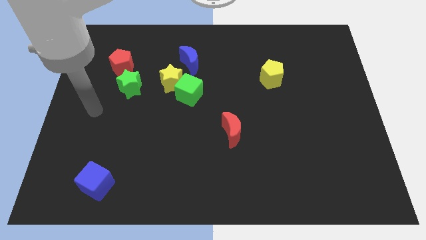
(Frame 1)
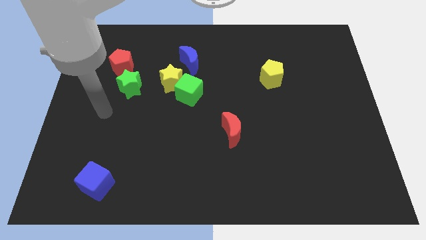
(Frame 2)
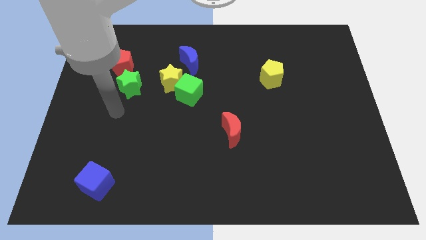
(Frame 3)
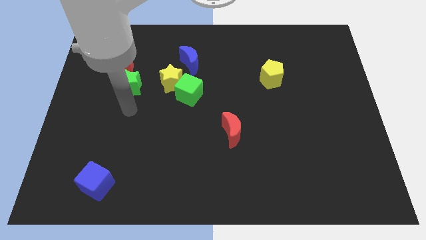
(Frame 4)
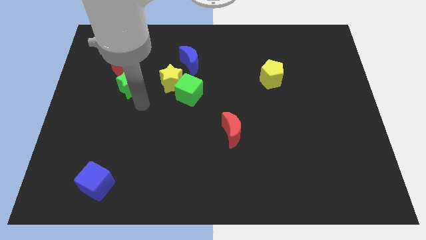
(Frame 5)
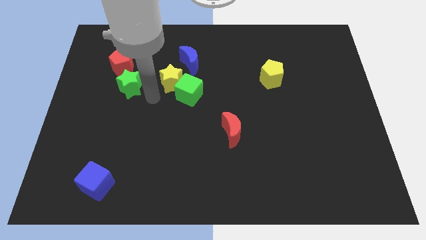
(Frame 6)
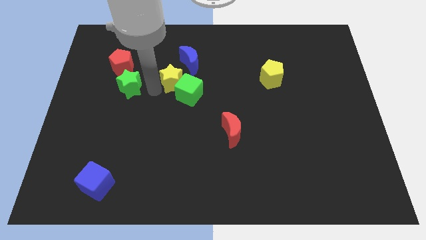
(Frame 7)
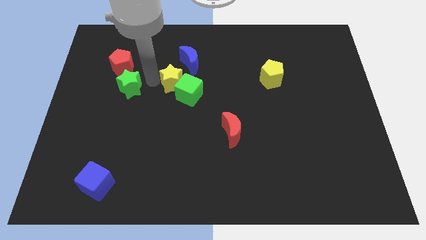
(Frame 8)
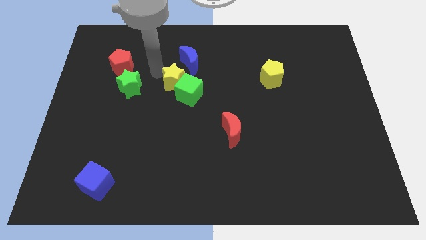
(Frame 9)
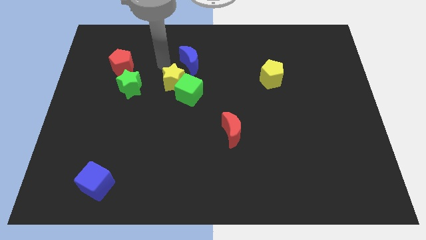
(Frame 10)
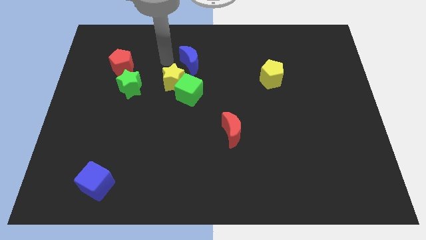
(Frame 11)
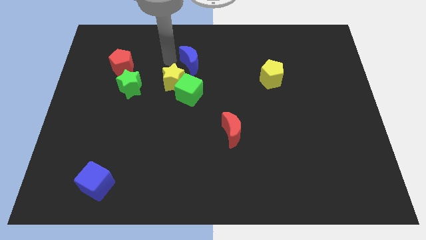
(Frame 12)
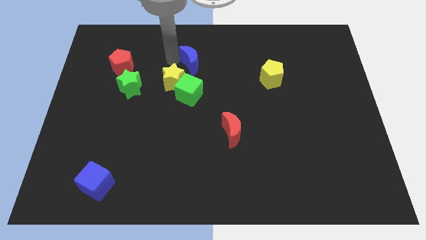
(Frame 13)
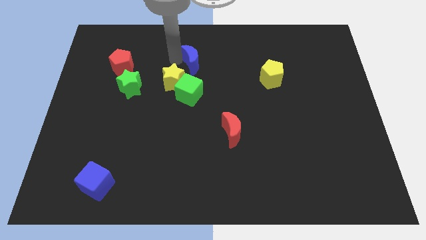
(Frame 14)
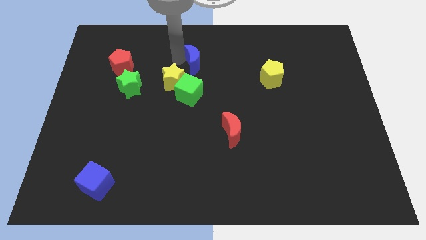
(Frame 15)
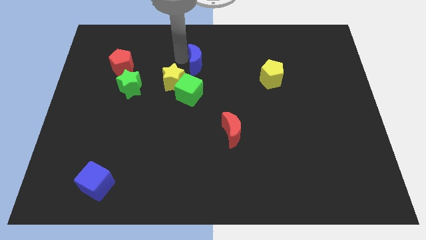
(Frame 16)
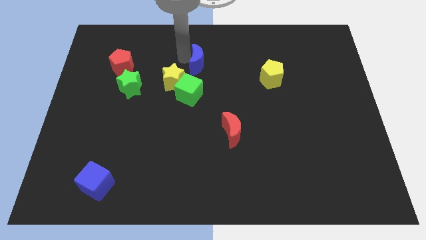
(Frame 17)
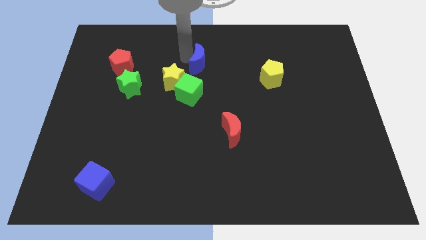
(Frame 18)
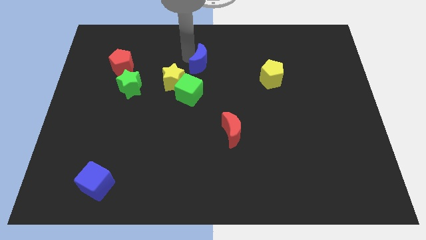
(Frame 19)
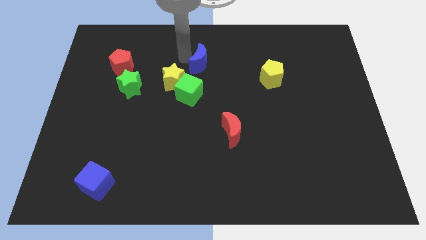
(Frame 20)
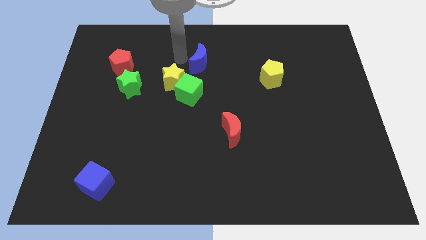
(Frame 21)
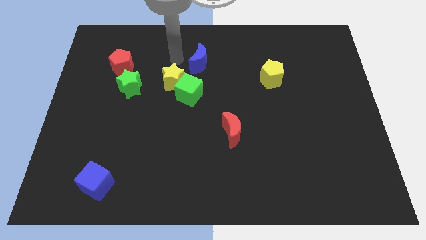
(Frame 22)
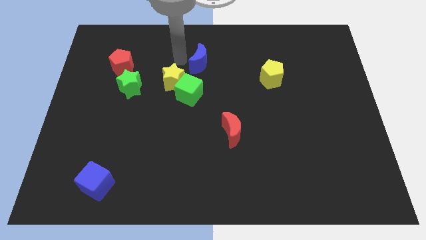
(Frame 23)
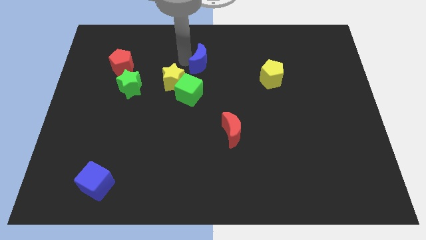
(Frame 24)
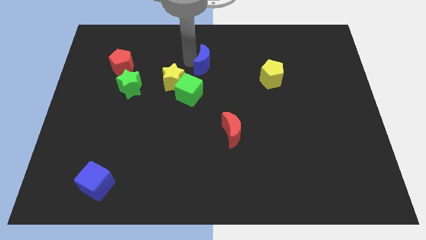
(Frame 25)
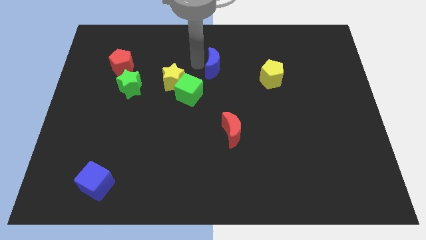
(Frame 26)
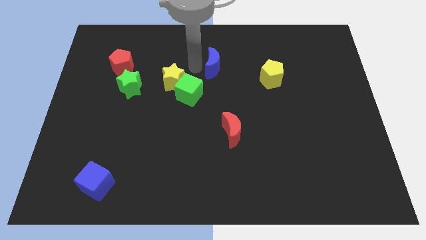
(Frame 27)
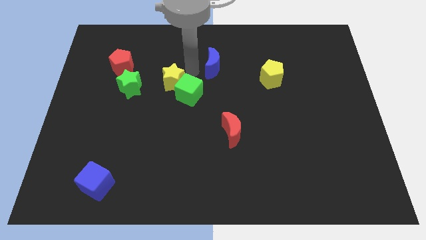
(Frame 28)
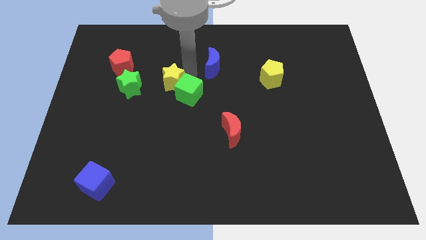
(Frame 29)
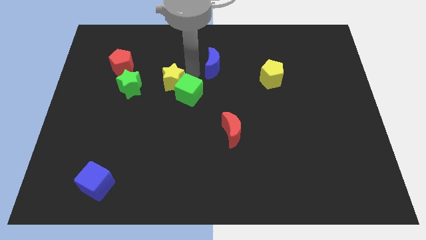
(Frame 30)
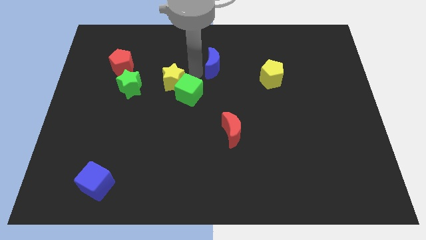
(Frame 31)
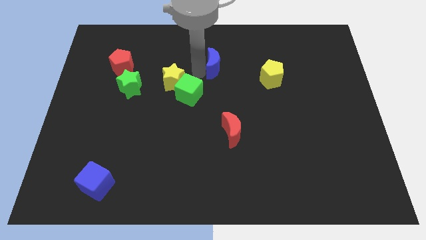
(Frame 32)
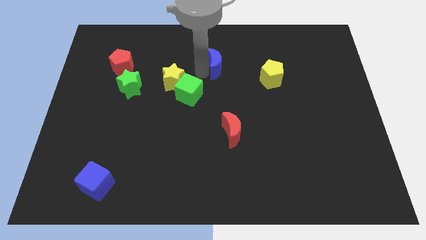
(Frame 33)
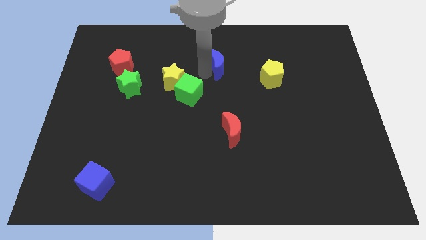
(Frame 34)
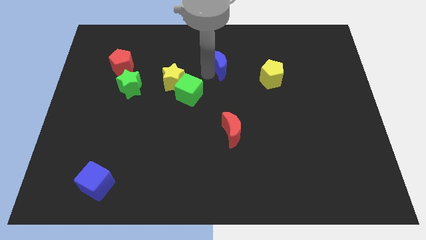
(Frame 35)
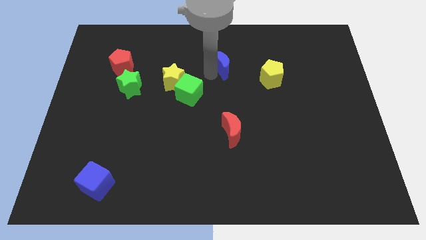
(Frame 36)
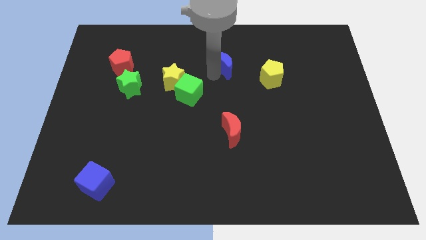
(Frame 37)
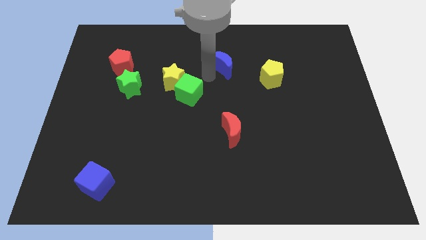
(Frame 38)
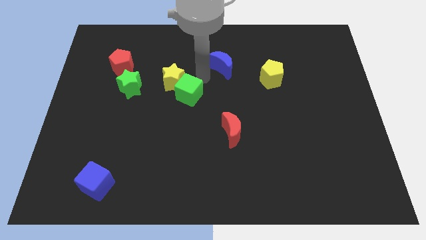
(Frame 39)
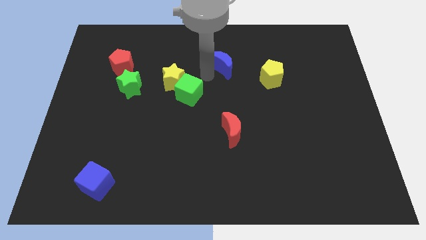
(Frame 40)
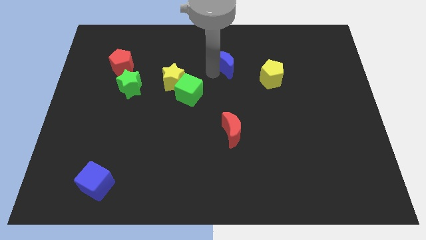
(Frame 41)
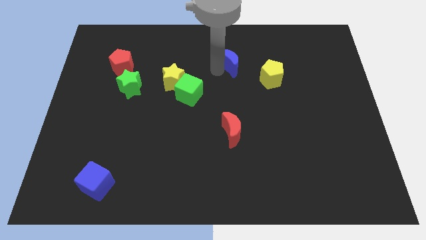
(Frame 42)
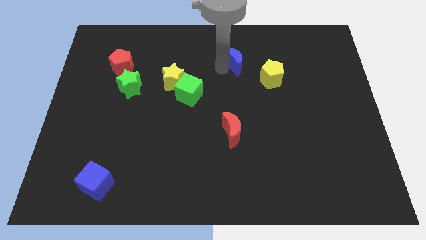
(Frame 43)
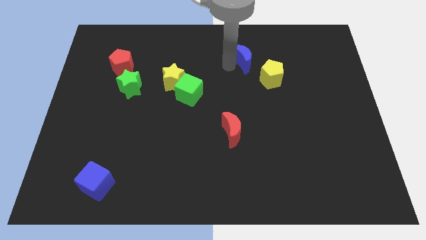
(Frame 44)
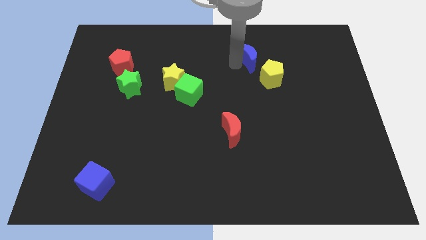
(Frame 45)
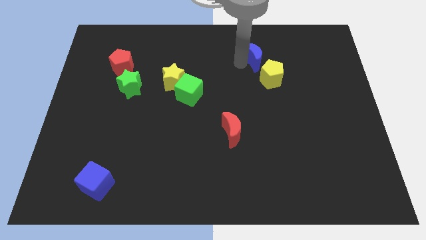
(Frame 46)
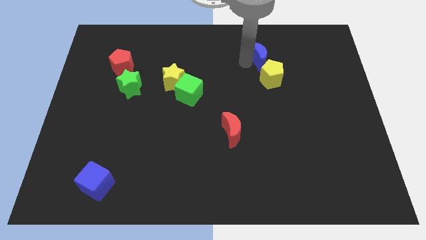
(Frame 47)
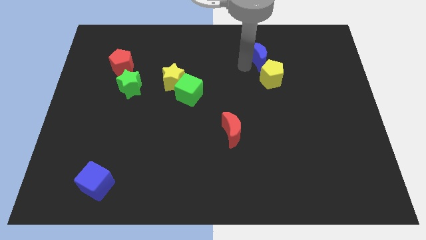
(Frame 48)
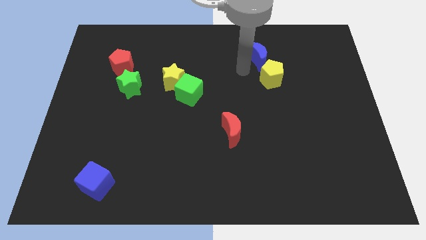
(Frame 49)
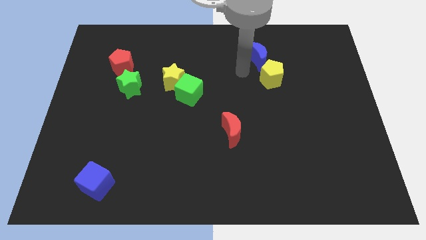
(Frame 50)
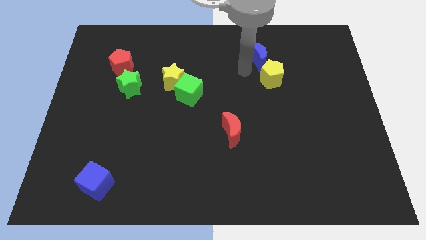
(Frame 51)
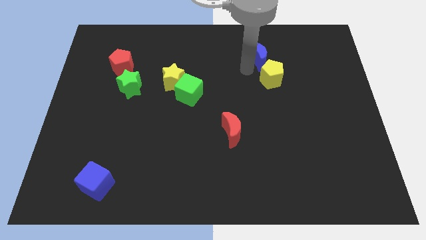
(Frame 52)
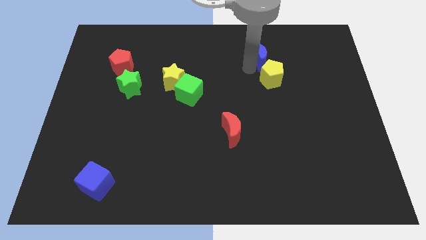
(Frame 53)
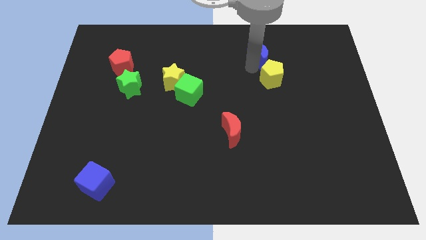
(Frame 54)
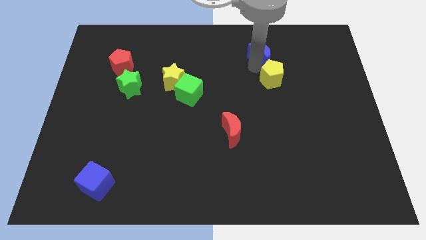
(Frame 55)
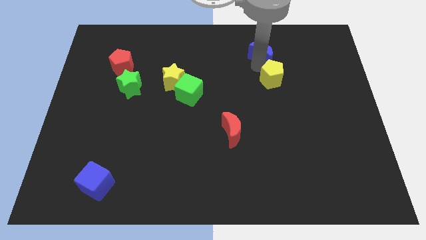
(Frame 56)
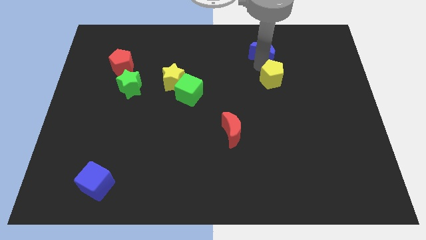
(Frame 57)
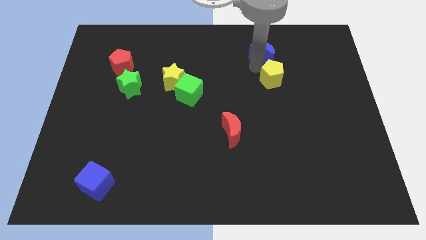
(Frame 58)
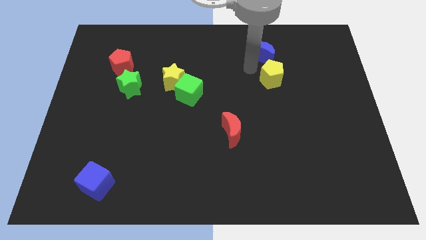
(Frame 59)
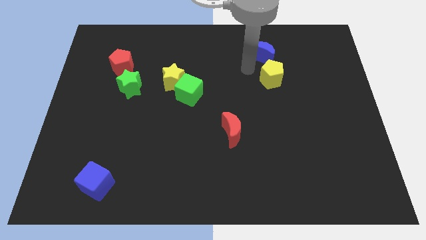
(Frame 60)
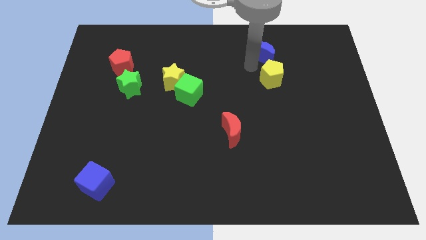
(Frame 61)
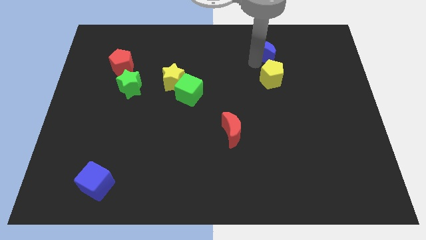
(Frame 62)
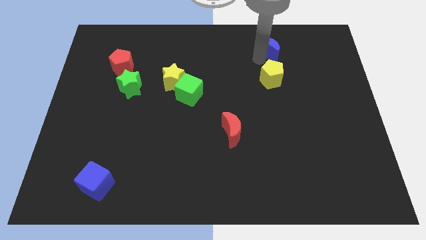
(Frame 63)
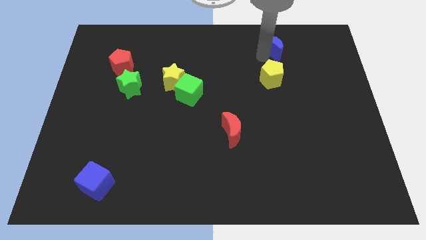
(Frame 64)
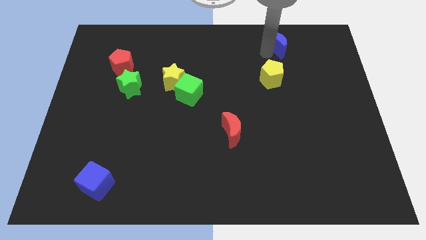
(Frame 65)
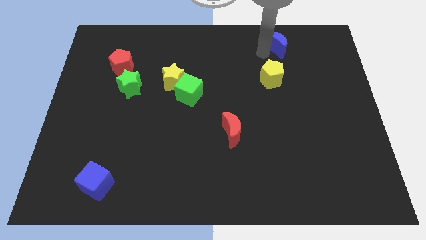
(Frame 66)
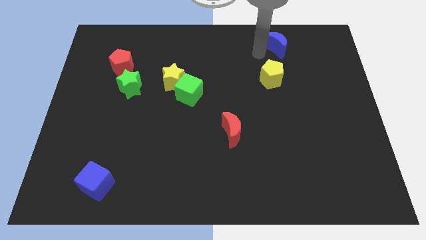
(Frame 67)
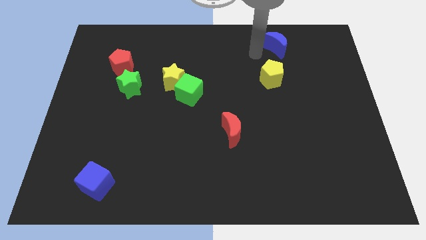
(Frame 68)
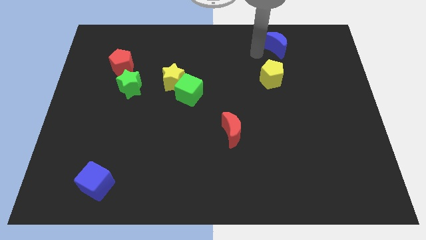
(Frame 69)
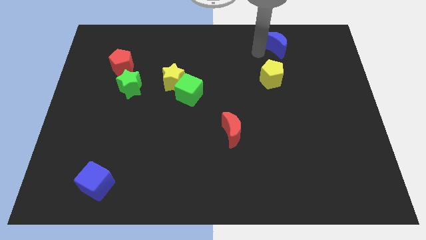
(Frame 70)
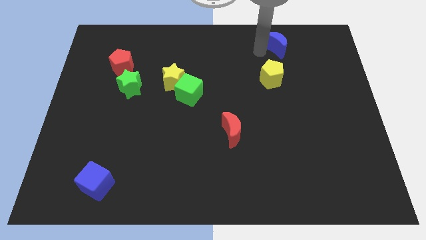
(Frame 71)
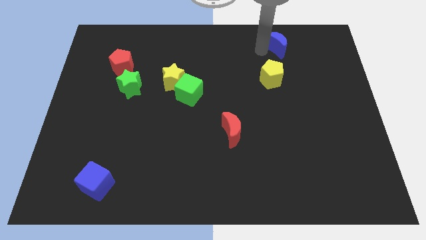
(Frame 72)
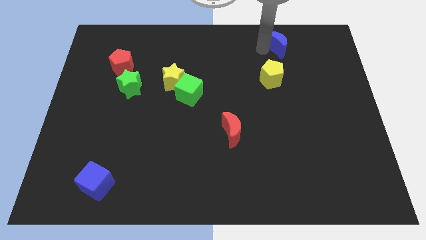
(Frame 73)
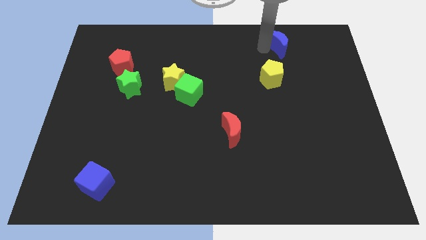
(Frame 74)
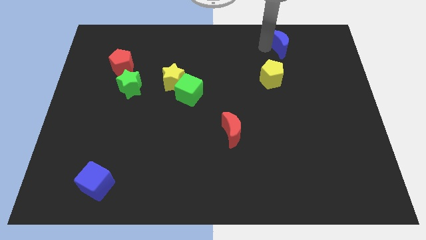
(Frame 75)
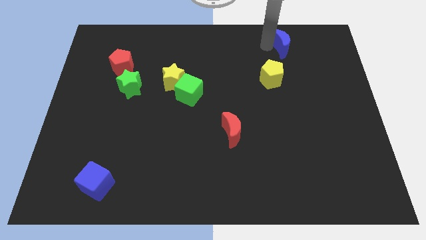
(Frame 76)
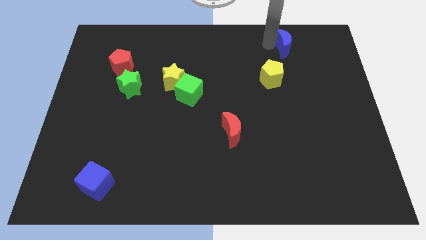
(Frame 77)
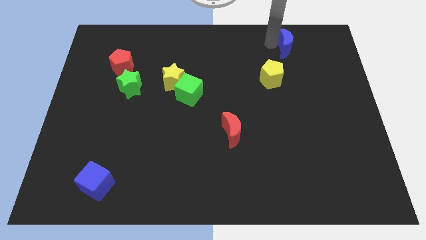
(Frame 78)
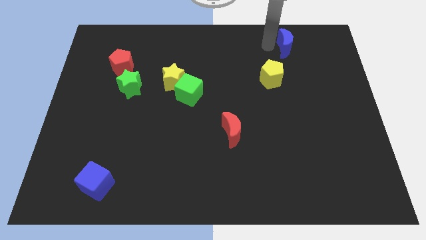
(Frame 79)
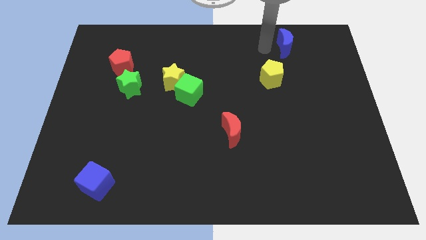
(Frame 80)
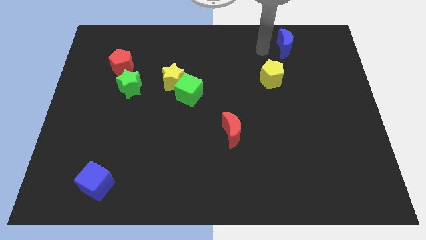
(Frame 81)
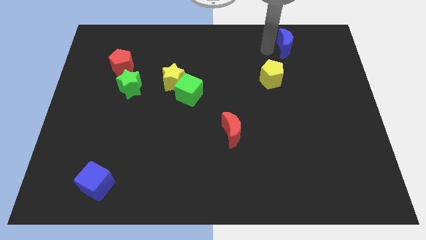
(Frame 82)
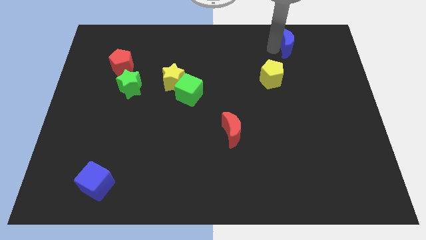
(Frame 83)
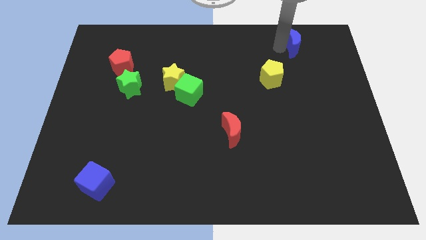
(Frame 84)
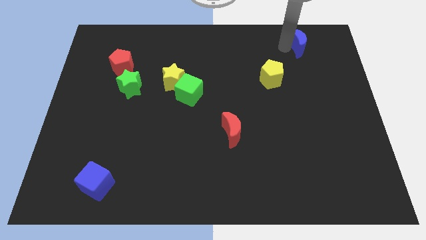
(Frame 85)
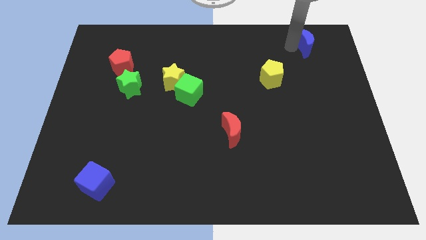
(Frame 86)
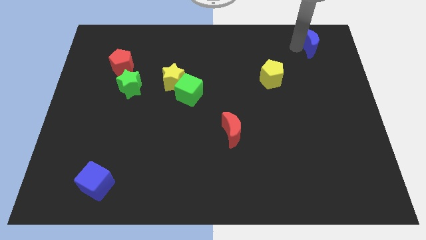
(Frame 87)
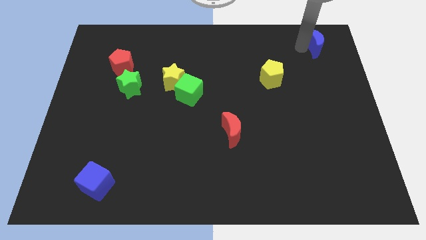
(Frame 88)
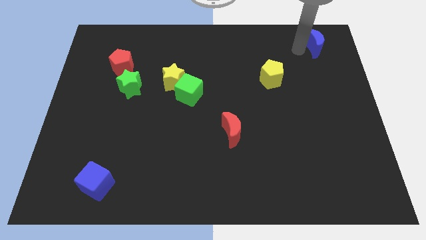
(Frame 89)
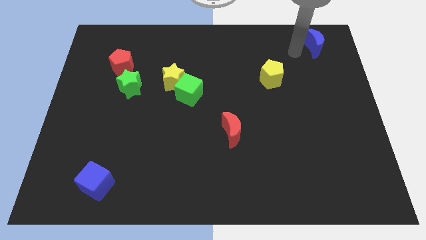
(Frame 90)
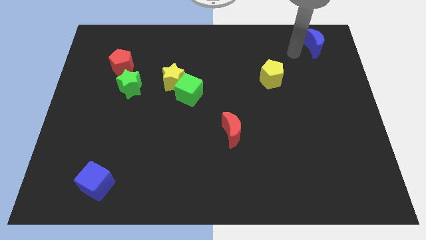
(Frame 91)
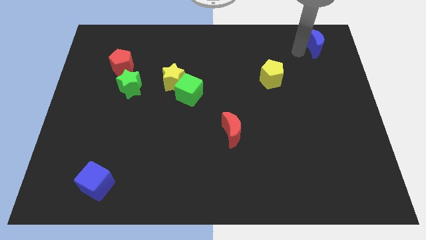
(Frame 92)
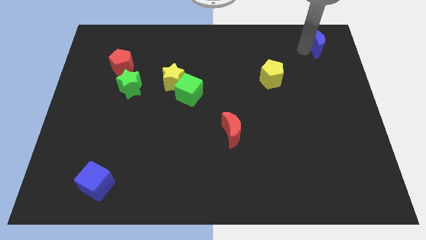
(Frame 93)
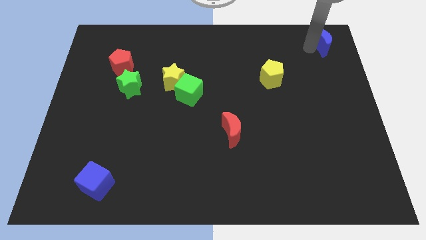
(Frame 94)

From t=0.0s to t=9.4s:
put the blue moon to the upper right corner
